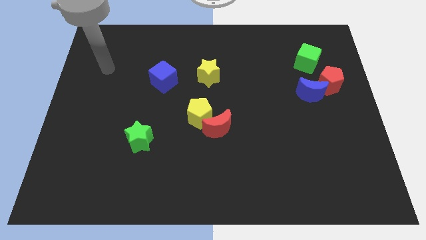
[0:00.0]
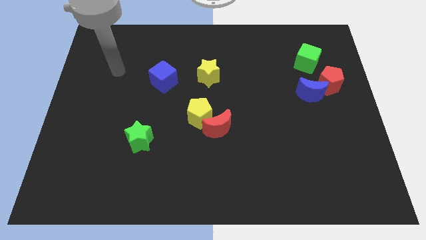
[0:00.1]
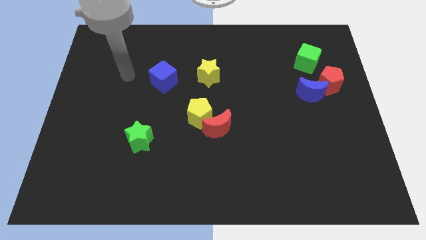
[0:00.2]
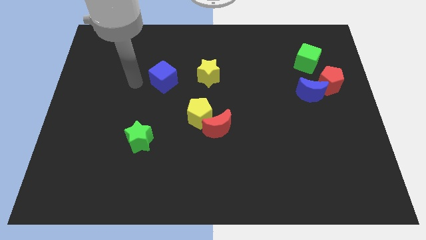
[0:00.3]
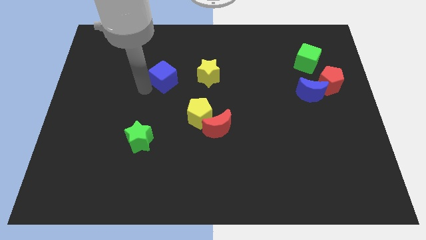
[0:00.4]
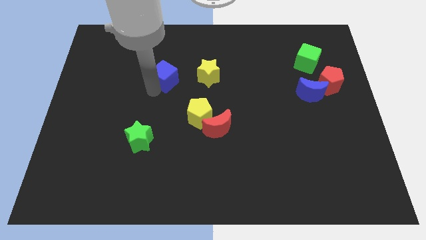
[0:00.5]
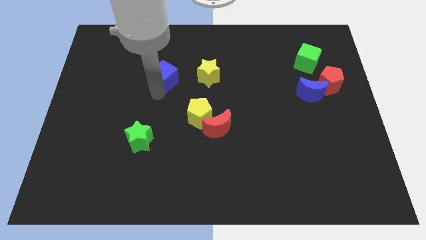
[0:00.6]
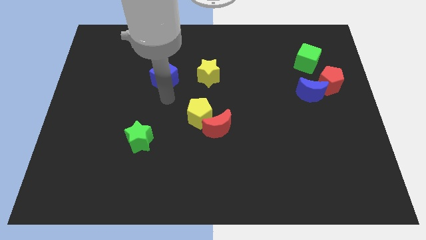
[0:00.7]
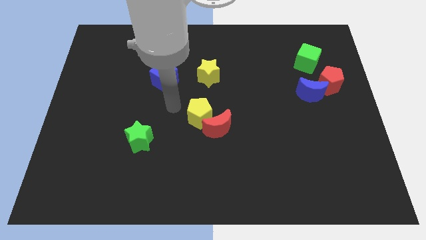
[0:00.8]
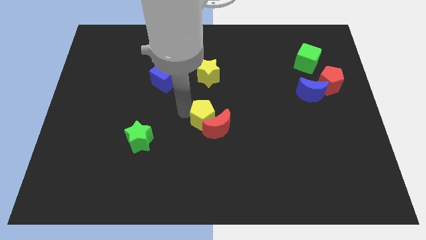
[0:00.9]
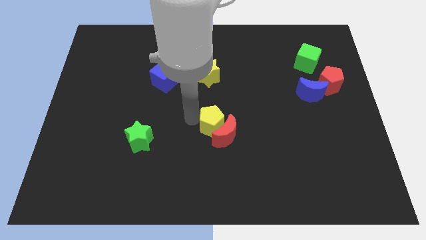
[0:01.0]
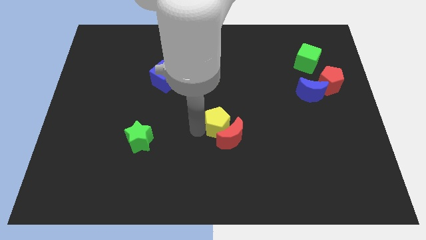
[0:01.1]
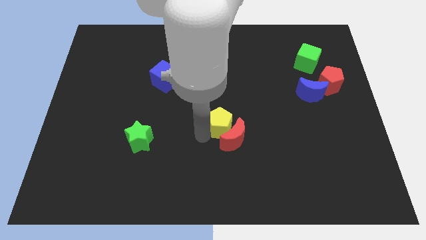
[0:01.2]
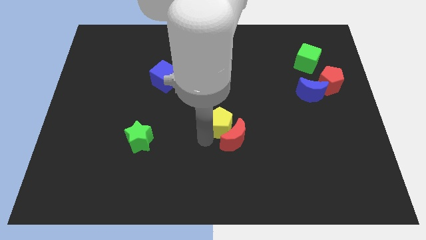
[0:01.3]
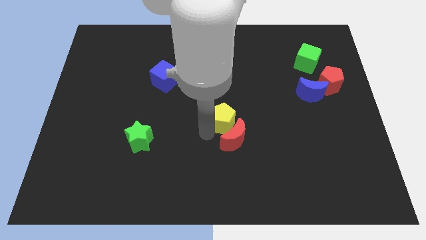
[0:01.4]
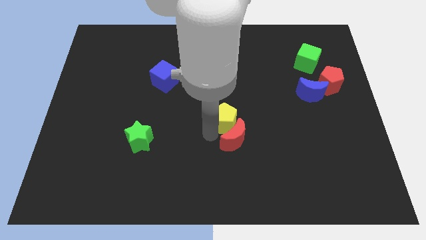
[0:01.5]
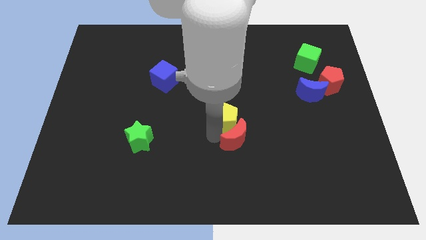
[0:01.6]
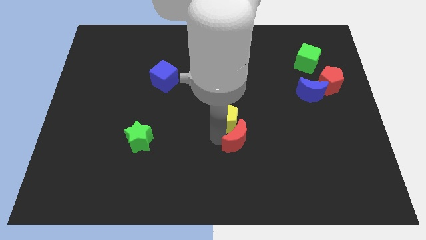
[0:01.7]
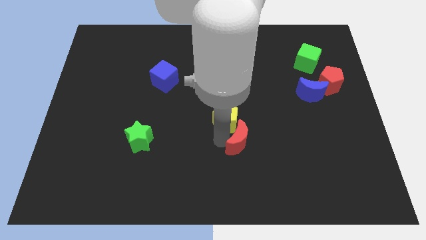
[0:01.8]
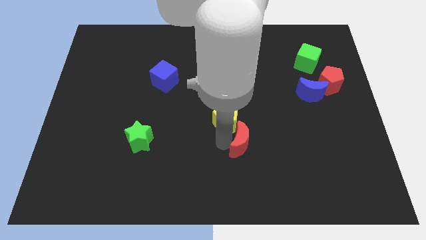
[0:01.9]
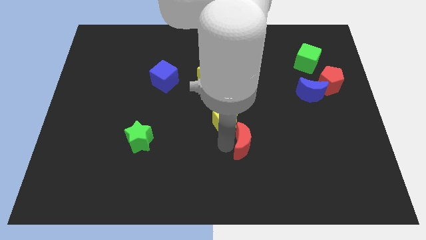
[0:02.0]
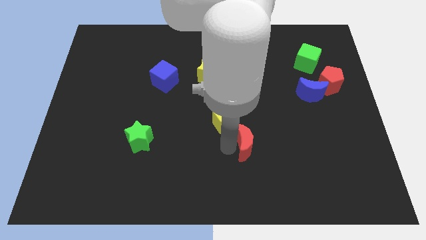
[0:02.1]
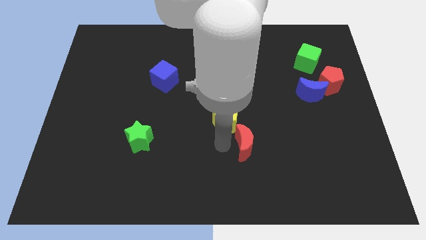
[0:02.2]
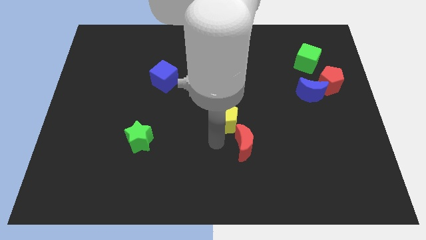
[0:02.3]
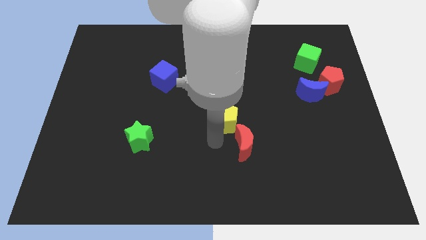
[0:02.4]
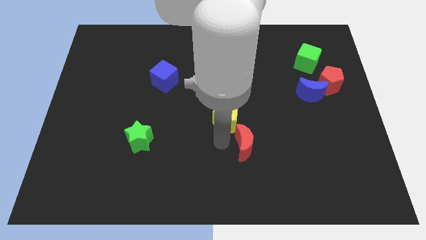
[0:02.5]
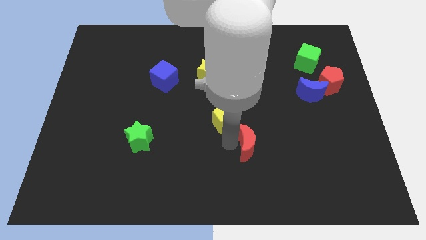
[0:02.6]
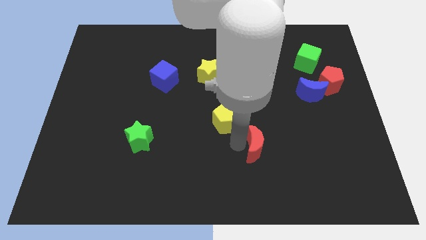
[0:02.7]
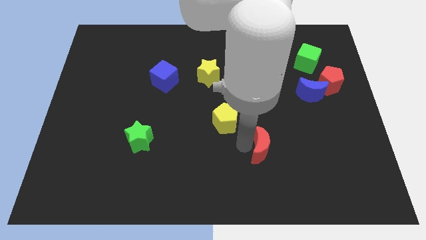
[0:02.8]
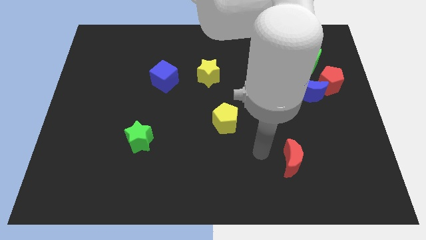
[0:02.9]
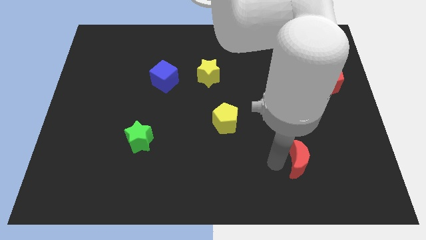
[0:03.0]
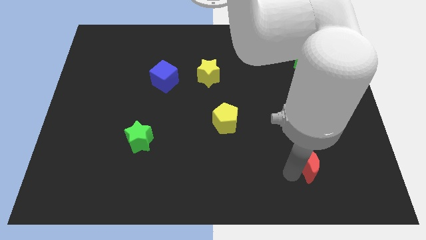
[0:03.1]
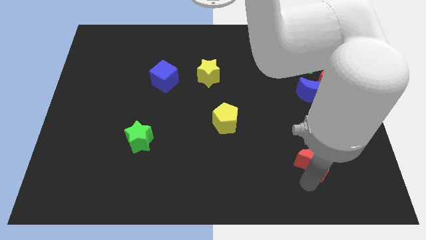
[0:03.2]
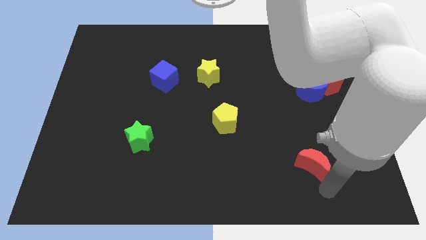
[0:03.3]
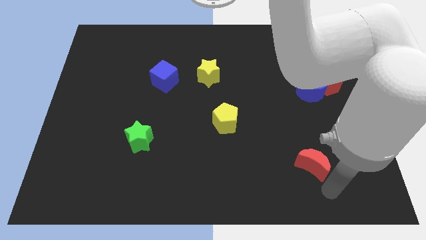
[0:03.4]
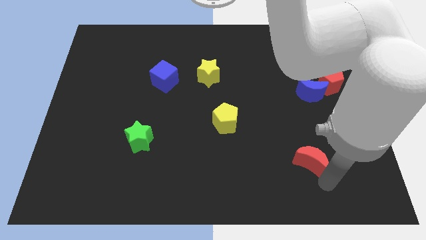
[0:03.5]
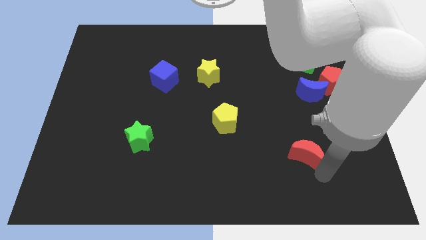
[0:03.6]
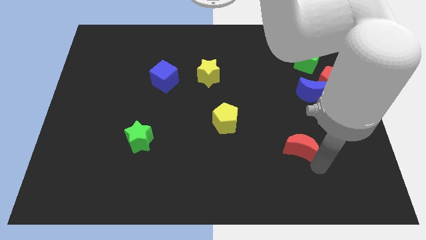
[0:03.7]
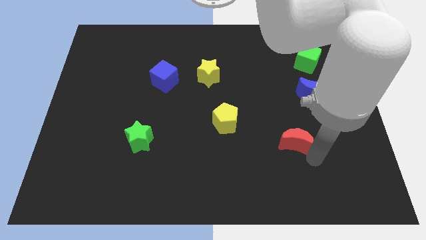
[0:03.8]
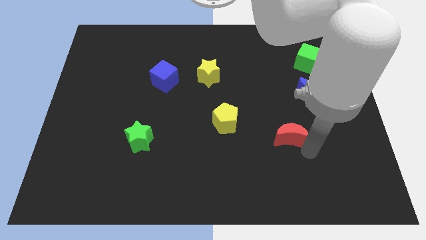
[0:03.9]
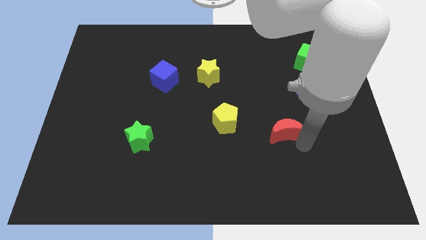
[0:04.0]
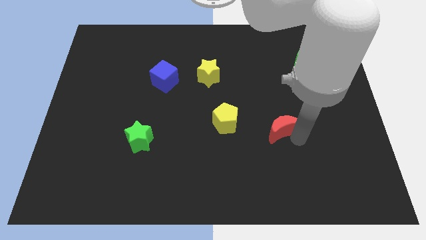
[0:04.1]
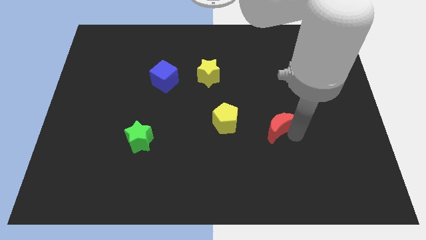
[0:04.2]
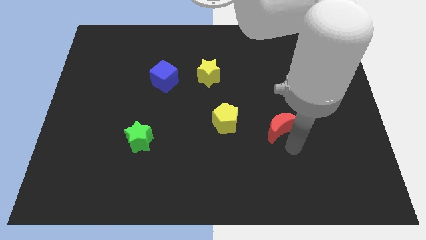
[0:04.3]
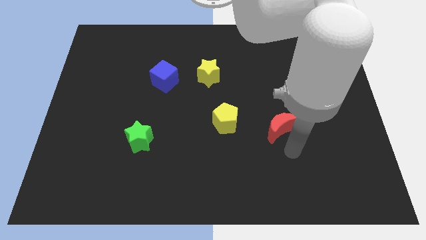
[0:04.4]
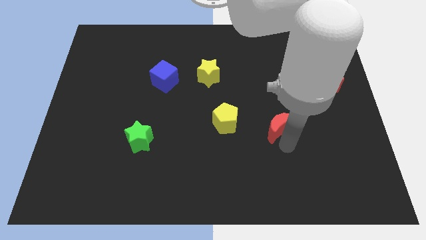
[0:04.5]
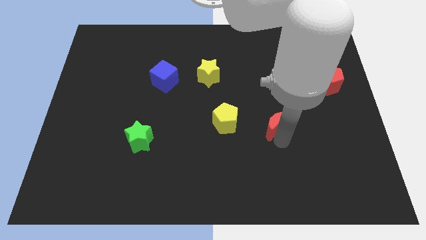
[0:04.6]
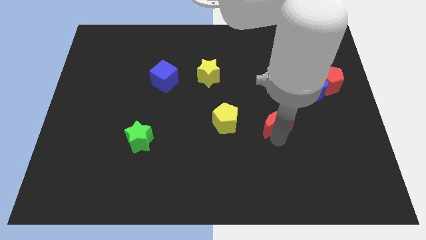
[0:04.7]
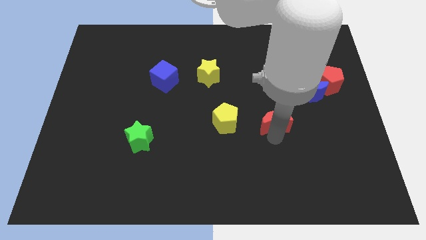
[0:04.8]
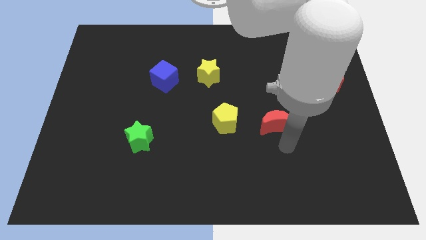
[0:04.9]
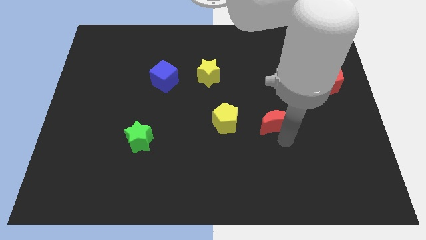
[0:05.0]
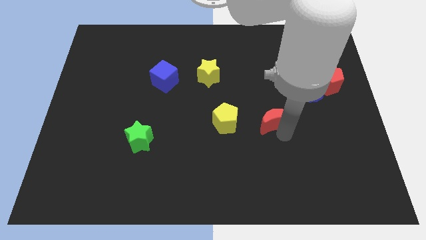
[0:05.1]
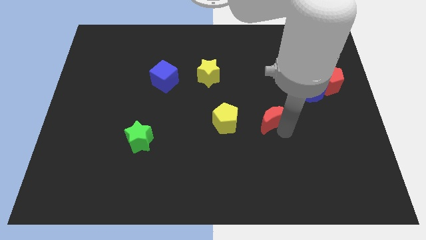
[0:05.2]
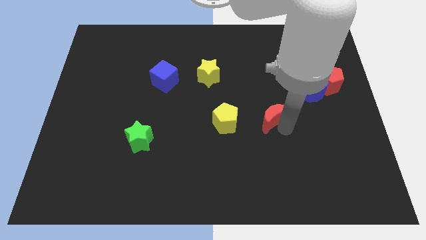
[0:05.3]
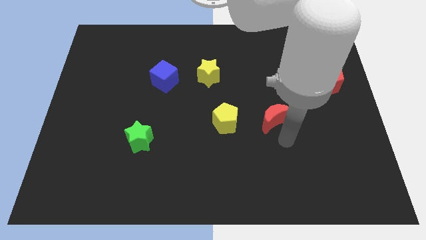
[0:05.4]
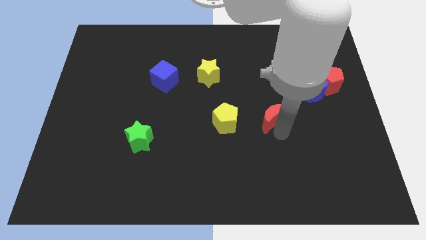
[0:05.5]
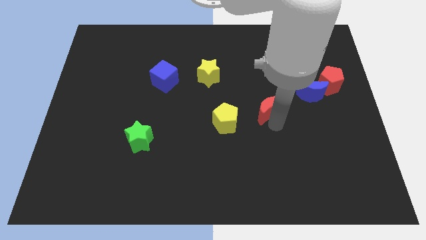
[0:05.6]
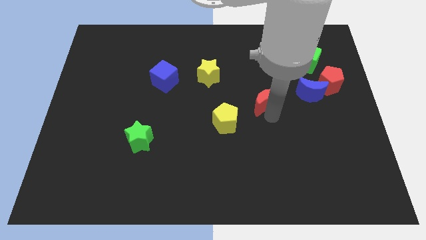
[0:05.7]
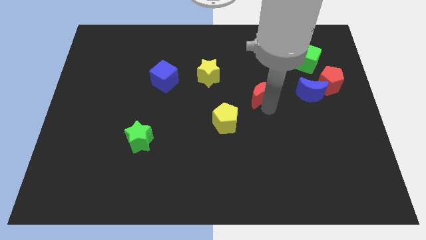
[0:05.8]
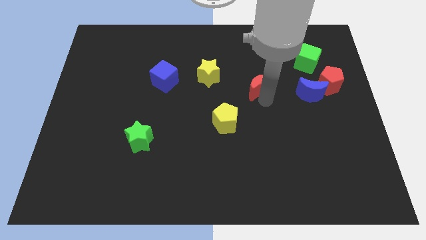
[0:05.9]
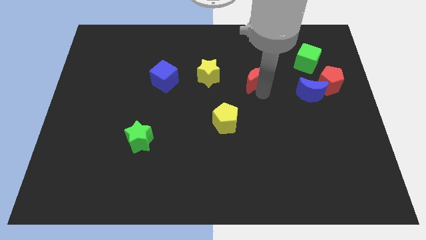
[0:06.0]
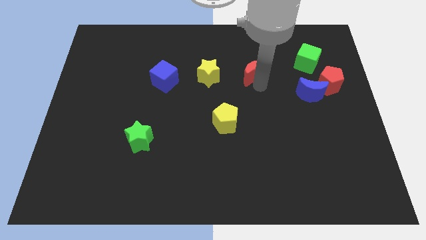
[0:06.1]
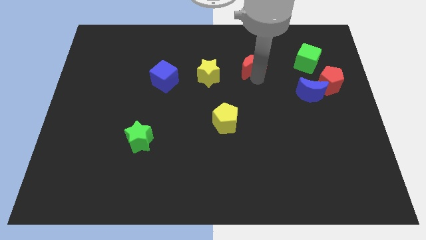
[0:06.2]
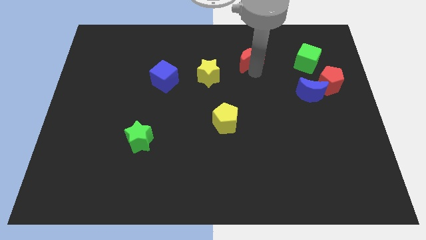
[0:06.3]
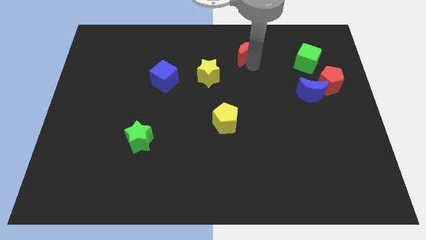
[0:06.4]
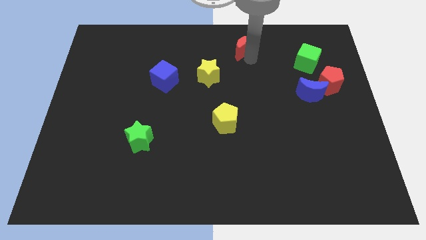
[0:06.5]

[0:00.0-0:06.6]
push the red moon to the top side

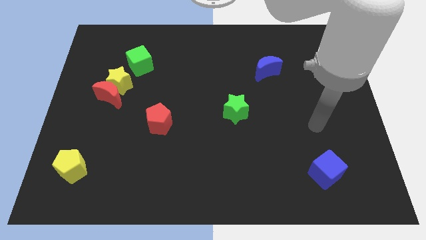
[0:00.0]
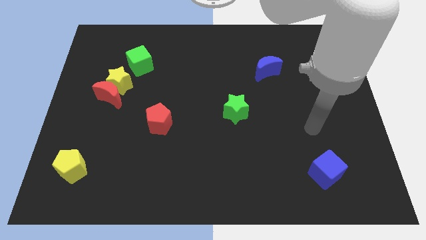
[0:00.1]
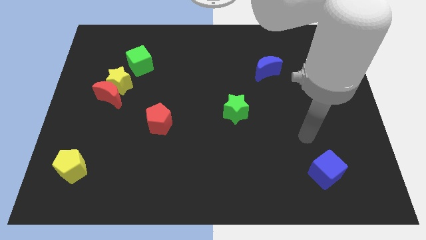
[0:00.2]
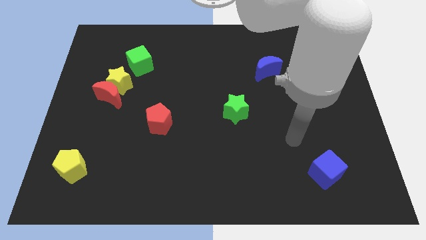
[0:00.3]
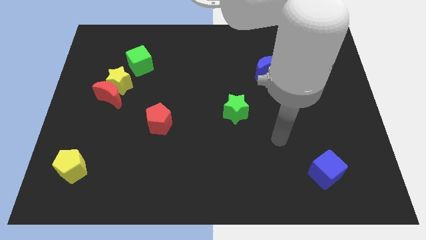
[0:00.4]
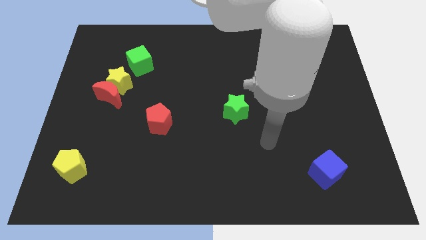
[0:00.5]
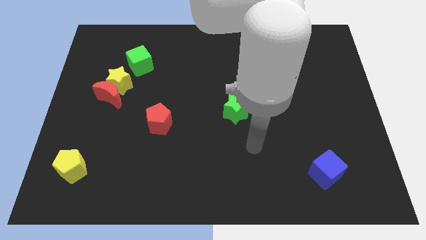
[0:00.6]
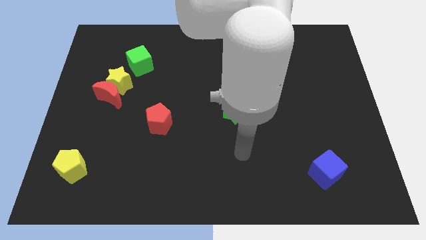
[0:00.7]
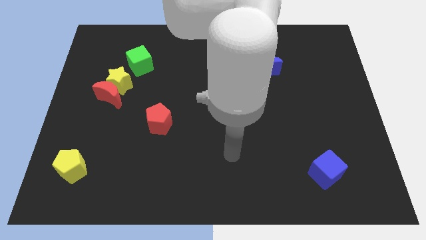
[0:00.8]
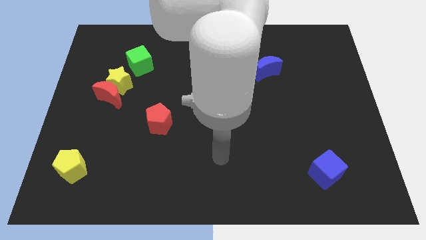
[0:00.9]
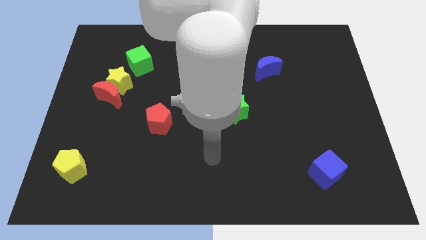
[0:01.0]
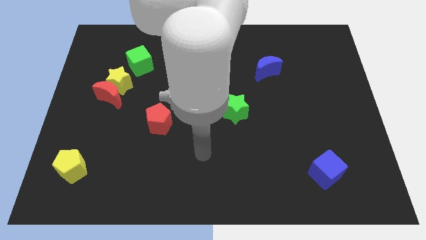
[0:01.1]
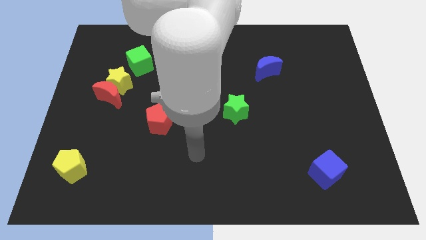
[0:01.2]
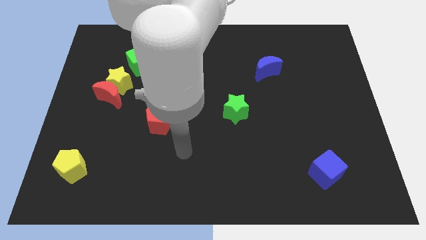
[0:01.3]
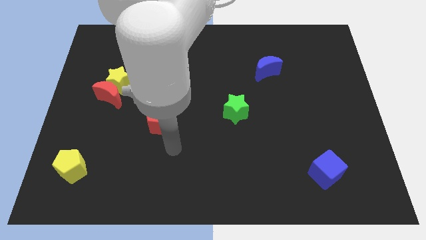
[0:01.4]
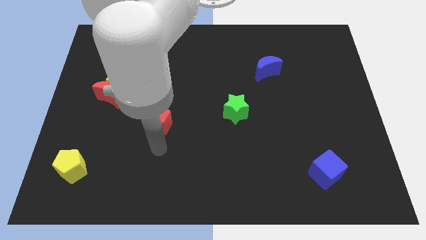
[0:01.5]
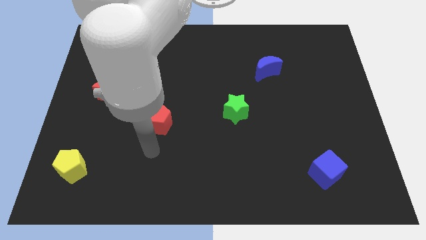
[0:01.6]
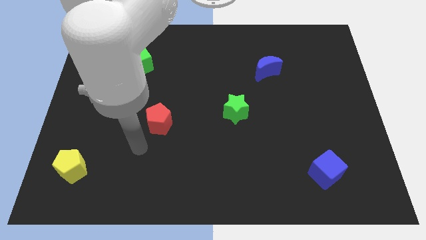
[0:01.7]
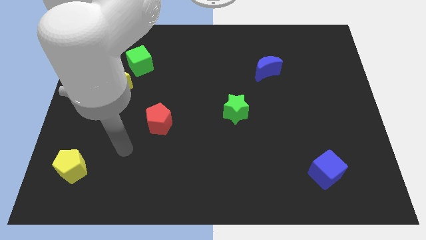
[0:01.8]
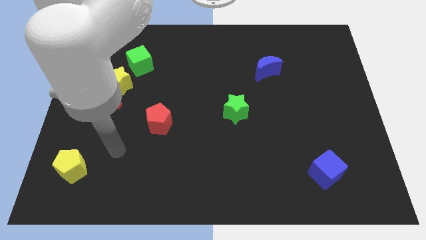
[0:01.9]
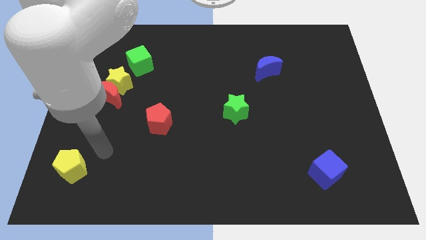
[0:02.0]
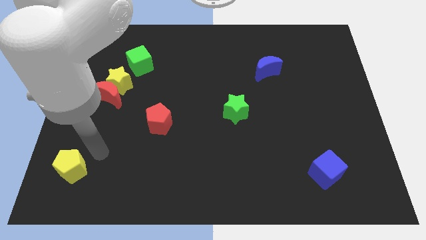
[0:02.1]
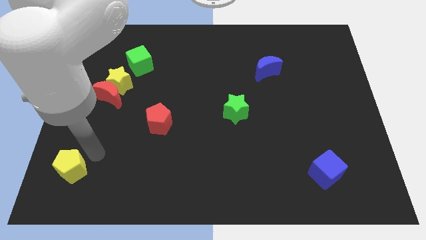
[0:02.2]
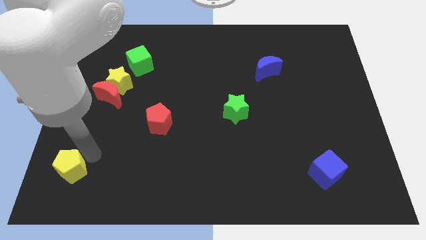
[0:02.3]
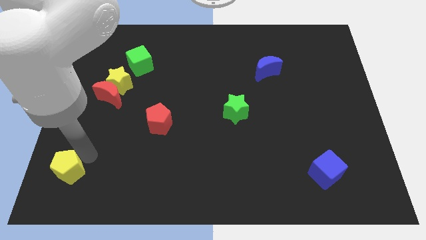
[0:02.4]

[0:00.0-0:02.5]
move the yellow pentagon to the bottom left of the board
